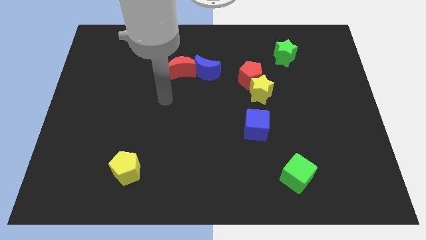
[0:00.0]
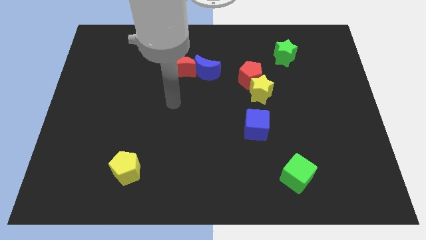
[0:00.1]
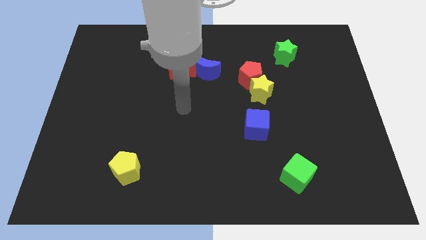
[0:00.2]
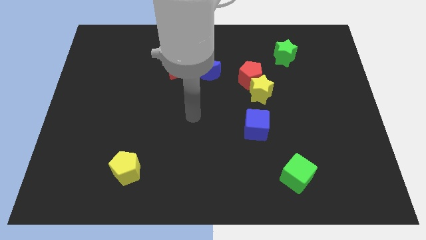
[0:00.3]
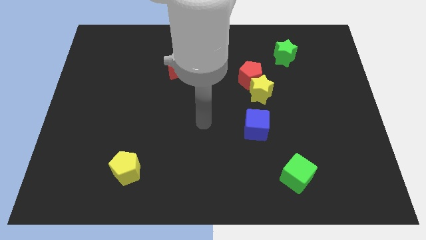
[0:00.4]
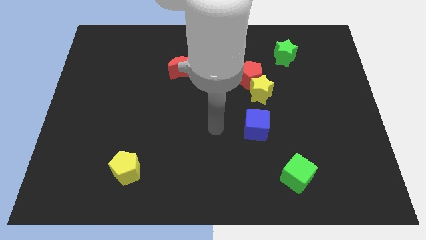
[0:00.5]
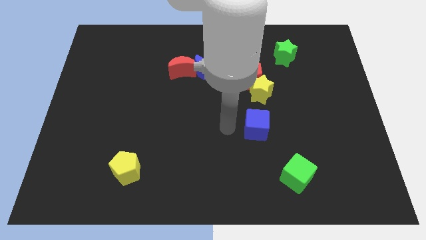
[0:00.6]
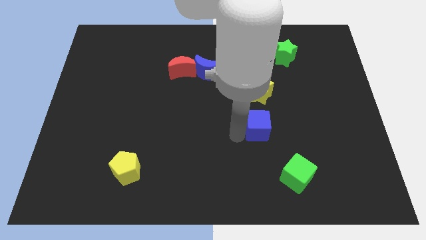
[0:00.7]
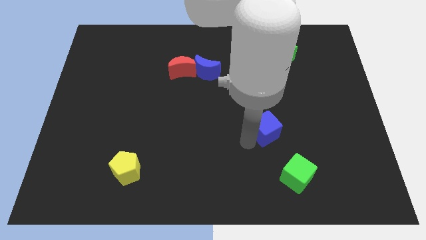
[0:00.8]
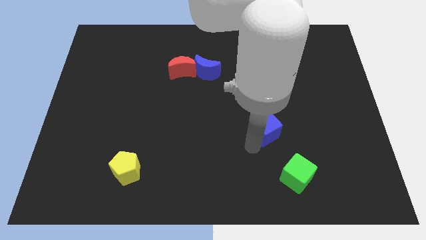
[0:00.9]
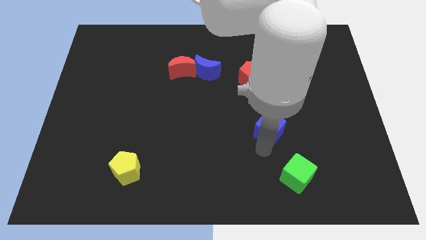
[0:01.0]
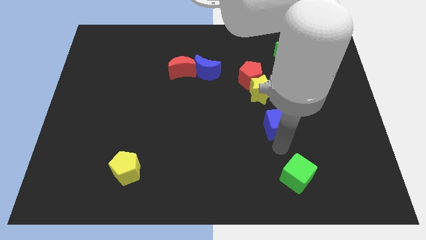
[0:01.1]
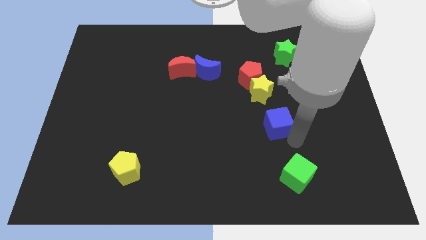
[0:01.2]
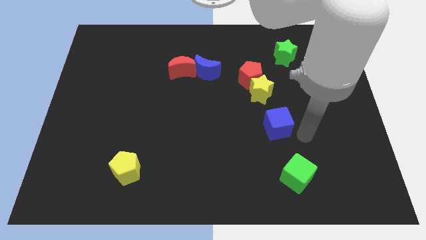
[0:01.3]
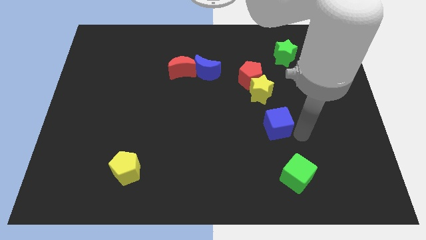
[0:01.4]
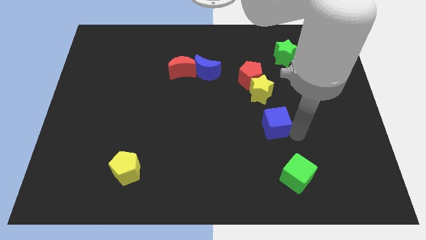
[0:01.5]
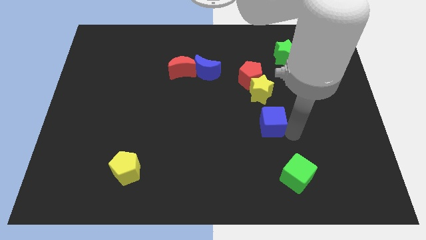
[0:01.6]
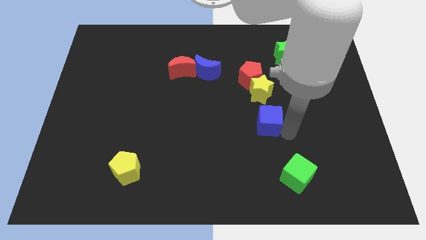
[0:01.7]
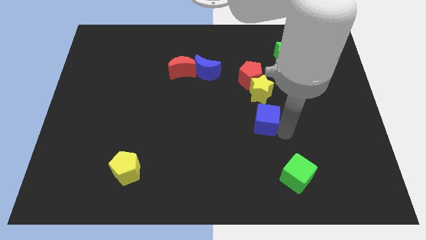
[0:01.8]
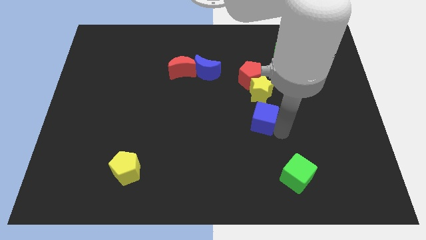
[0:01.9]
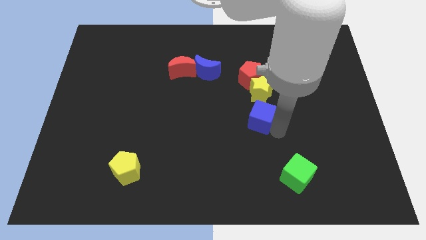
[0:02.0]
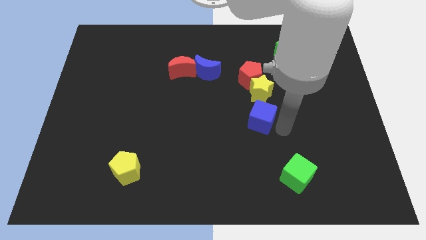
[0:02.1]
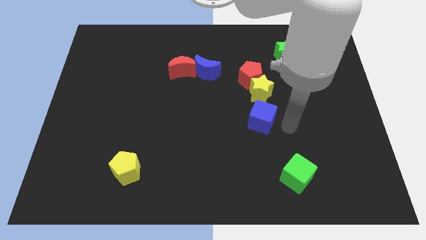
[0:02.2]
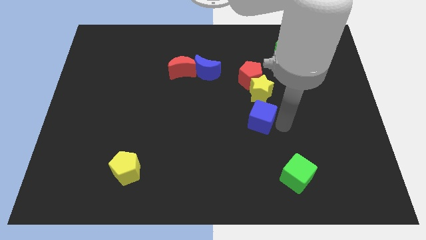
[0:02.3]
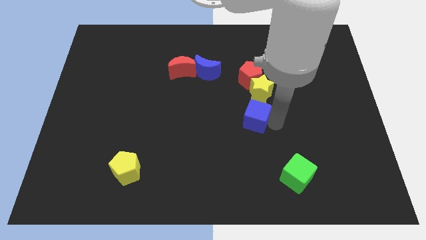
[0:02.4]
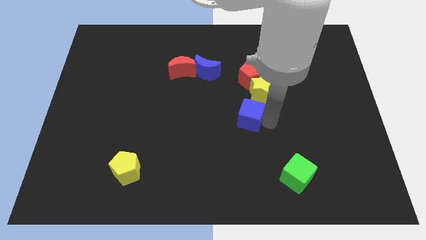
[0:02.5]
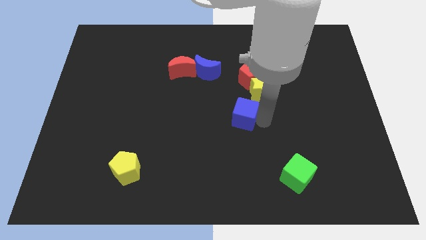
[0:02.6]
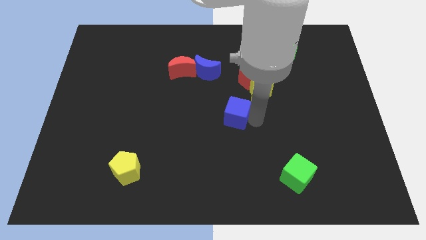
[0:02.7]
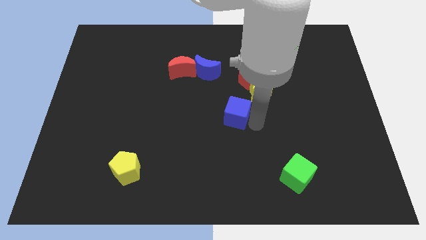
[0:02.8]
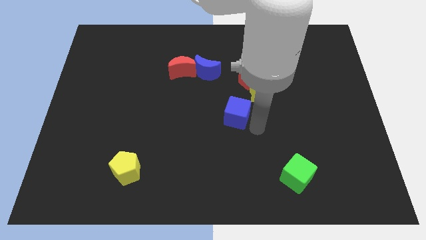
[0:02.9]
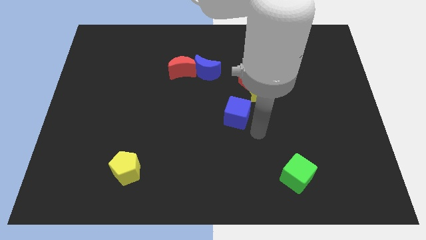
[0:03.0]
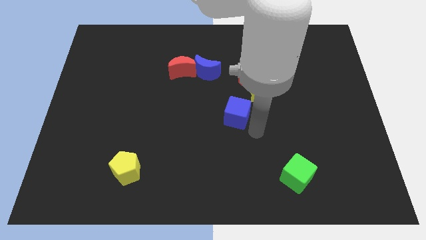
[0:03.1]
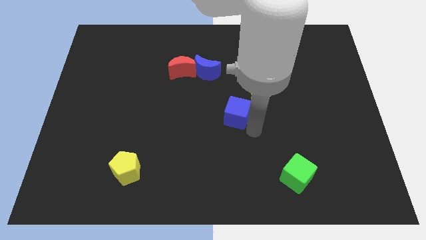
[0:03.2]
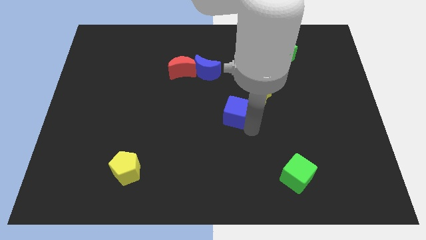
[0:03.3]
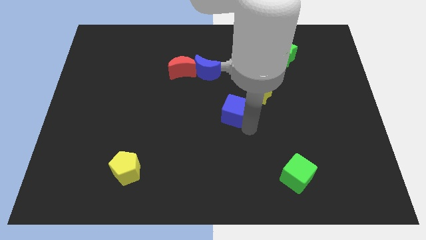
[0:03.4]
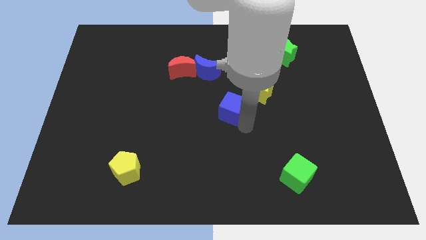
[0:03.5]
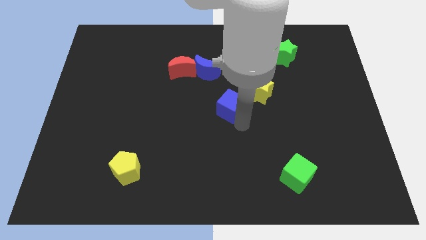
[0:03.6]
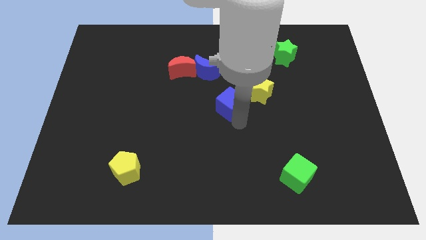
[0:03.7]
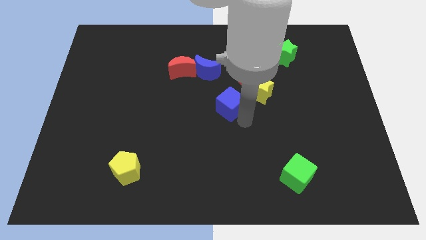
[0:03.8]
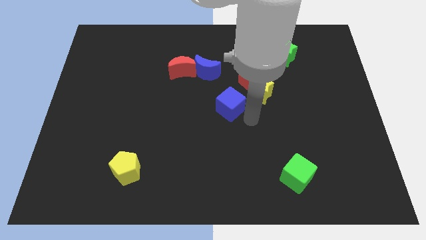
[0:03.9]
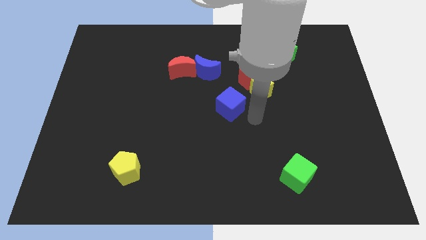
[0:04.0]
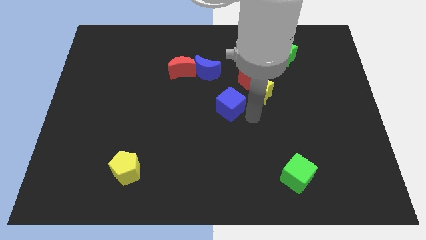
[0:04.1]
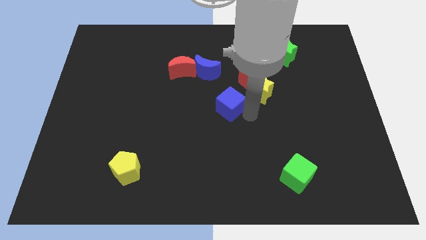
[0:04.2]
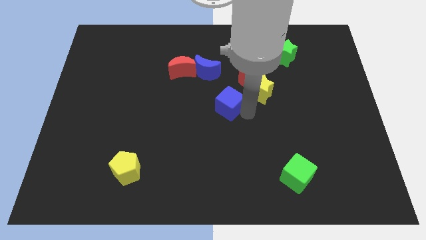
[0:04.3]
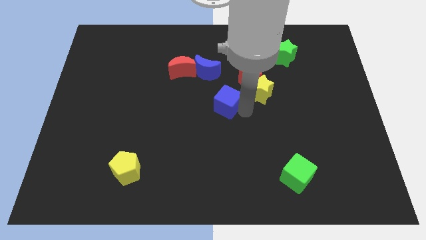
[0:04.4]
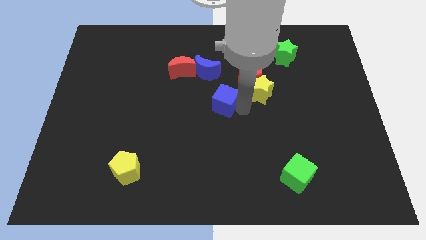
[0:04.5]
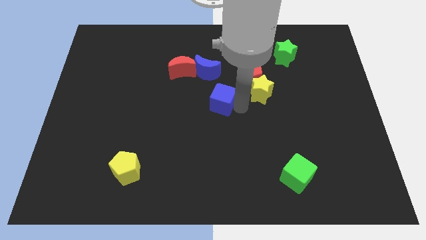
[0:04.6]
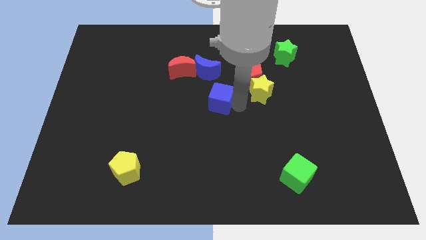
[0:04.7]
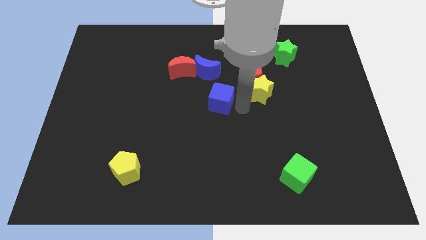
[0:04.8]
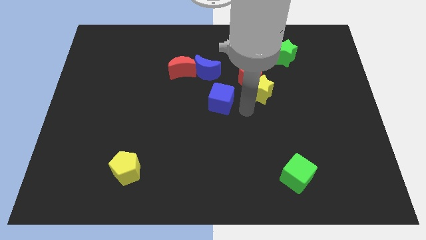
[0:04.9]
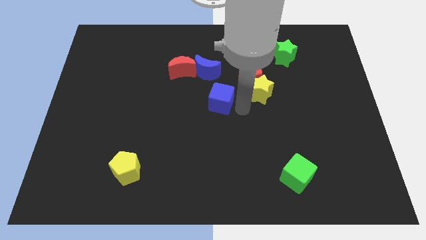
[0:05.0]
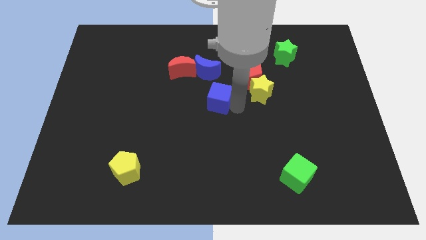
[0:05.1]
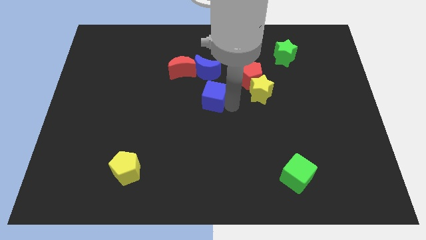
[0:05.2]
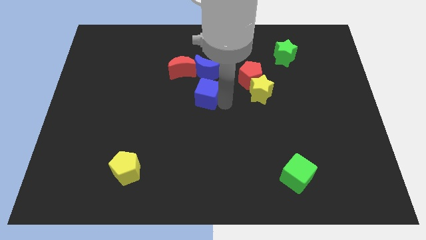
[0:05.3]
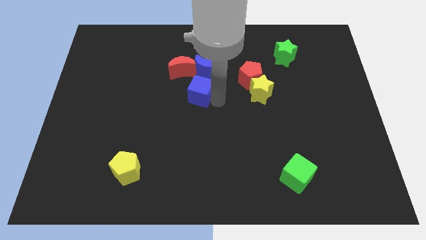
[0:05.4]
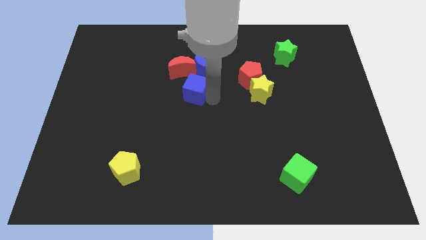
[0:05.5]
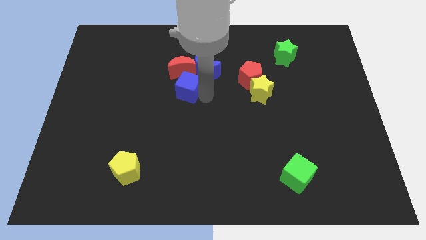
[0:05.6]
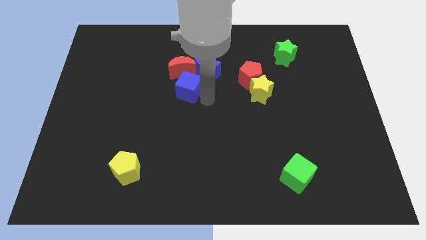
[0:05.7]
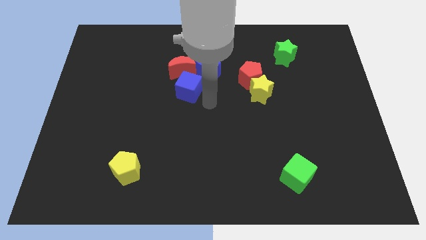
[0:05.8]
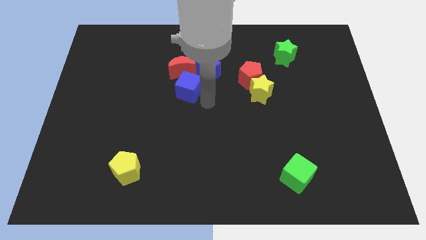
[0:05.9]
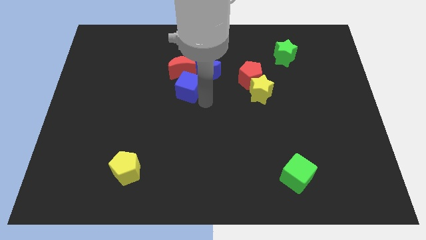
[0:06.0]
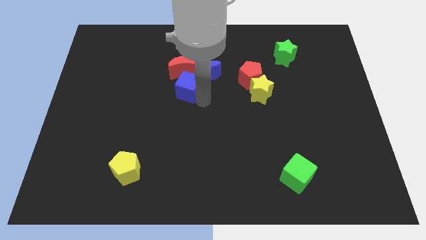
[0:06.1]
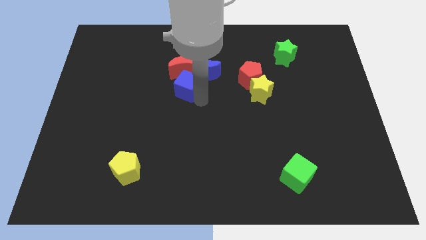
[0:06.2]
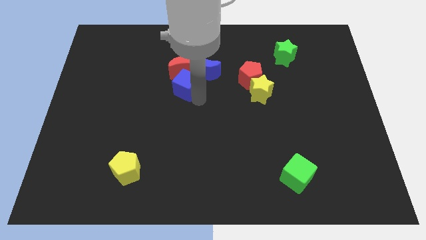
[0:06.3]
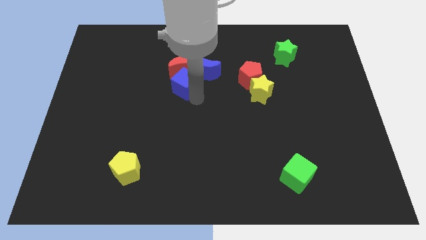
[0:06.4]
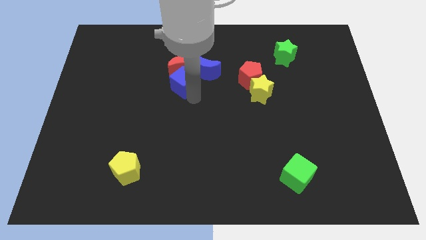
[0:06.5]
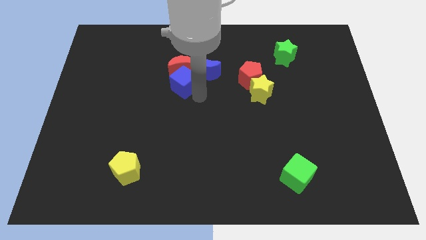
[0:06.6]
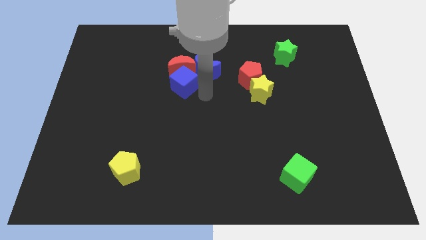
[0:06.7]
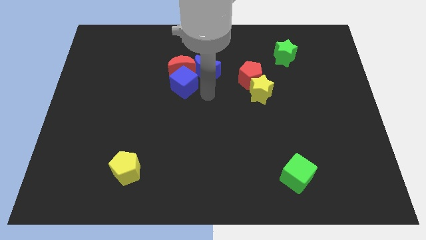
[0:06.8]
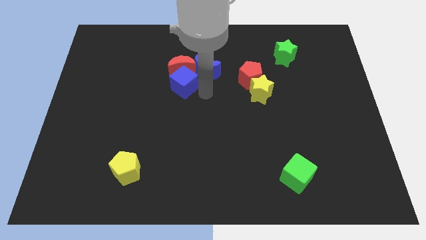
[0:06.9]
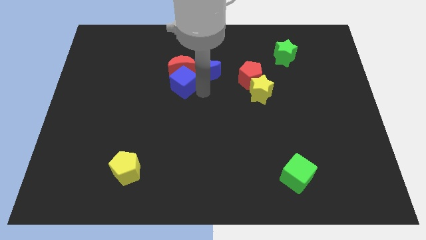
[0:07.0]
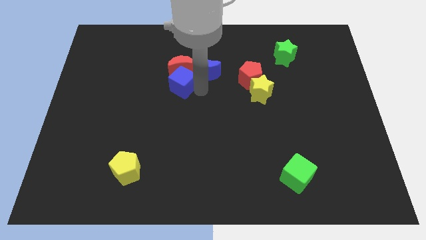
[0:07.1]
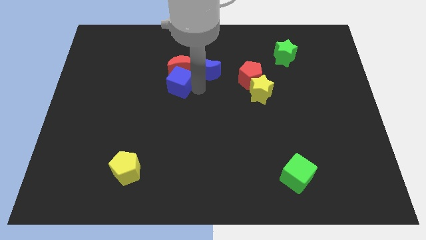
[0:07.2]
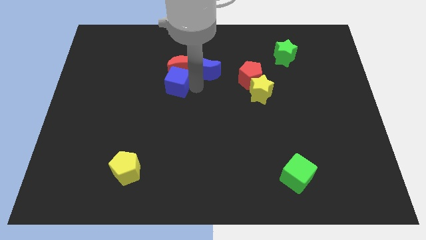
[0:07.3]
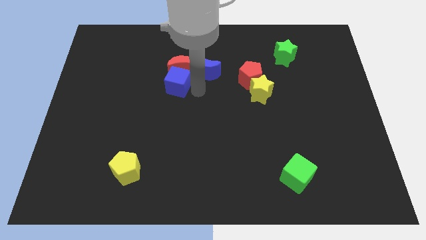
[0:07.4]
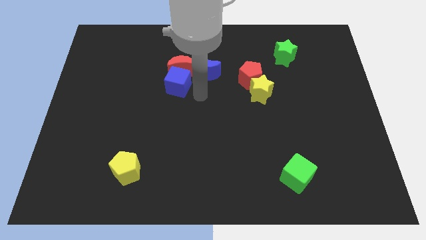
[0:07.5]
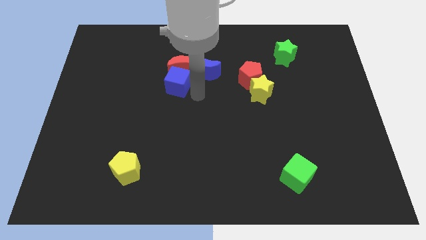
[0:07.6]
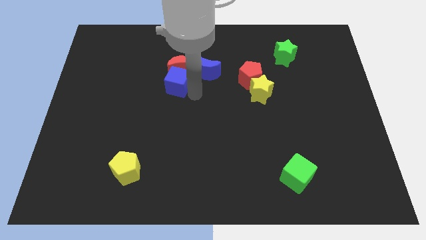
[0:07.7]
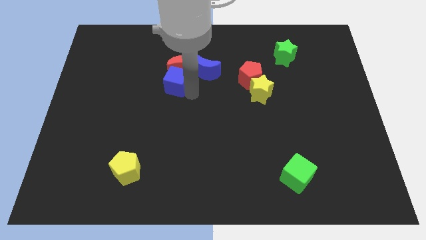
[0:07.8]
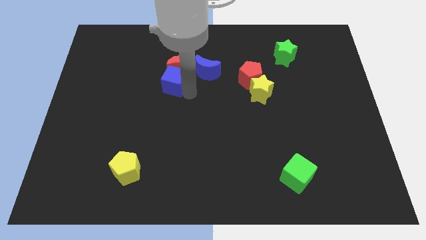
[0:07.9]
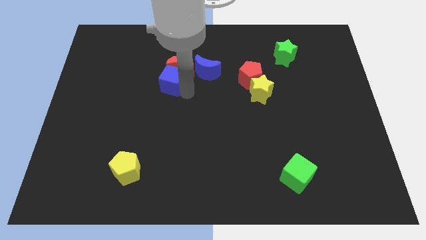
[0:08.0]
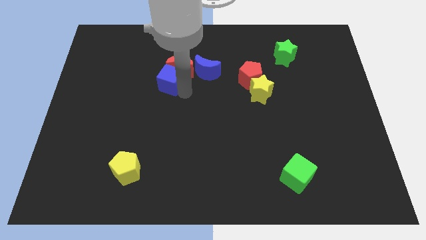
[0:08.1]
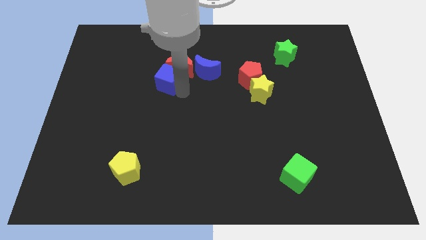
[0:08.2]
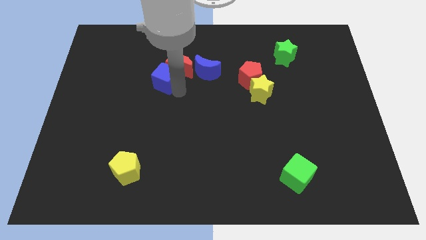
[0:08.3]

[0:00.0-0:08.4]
slide the blue cube to the left side of the red moon
